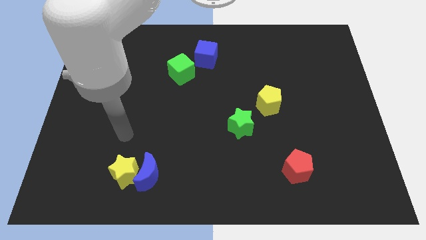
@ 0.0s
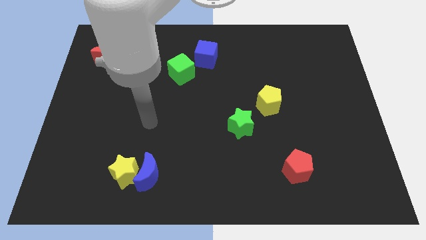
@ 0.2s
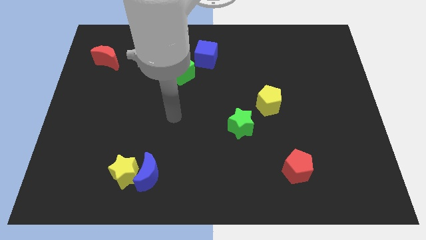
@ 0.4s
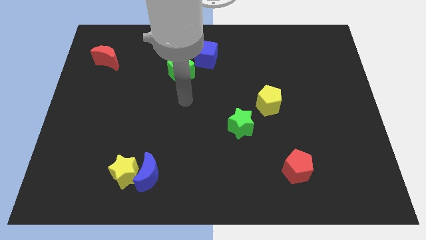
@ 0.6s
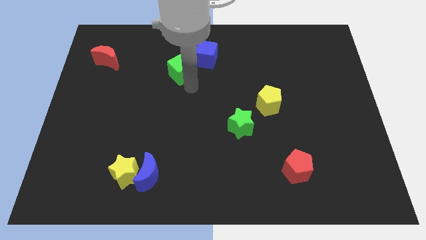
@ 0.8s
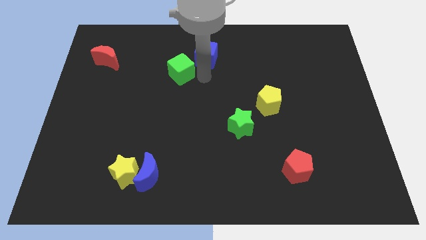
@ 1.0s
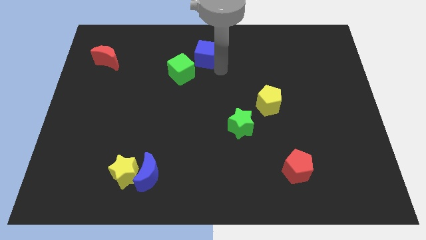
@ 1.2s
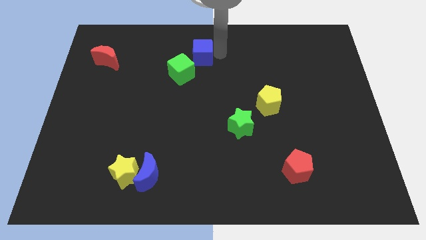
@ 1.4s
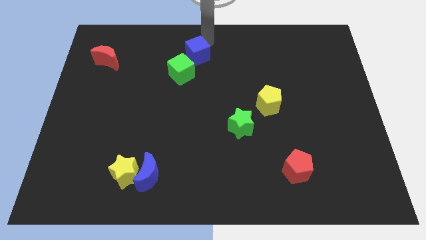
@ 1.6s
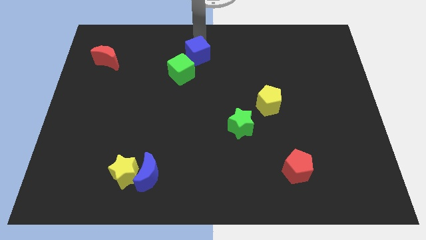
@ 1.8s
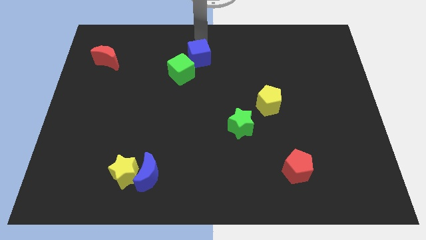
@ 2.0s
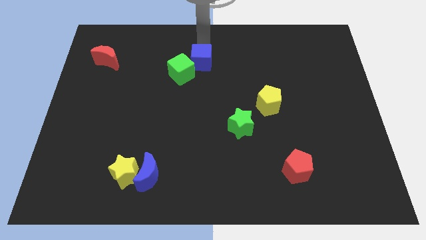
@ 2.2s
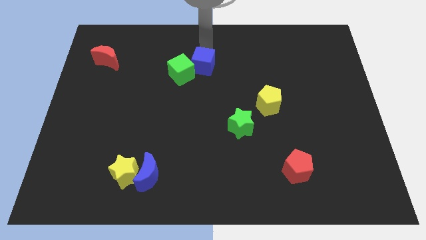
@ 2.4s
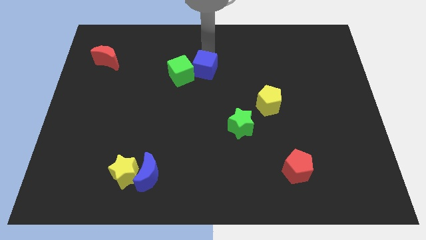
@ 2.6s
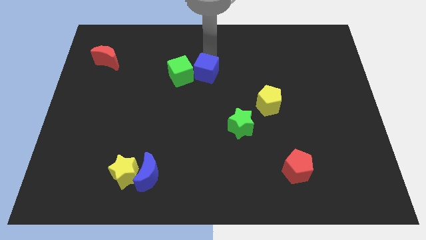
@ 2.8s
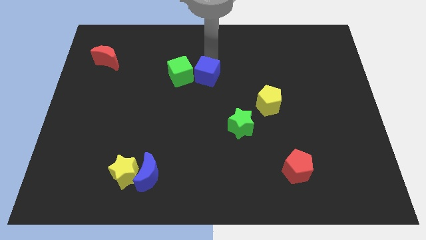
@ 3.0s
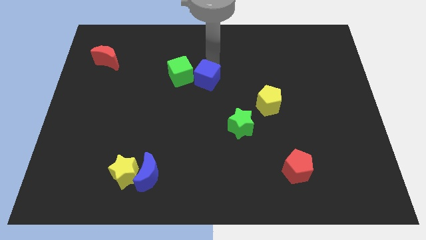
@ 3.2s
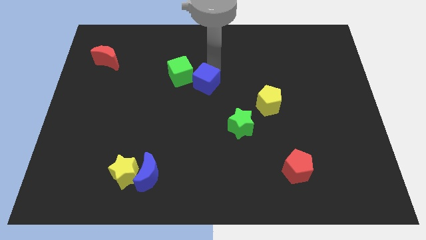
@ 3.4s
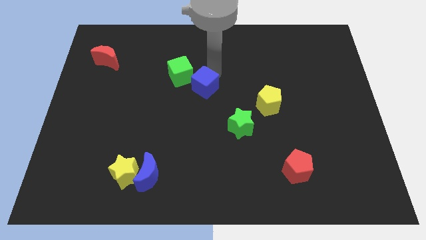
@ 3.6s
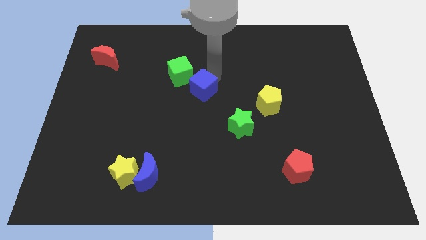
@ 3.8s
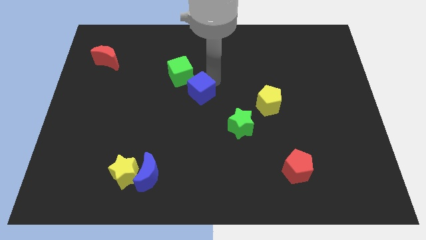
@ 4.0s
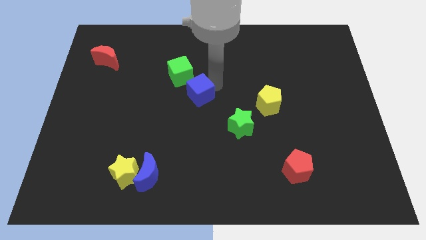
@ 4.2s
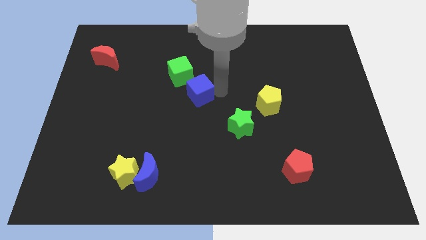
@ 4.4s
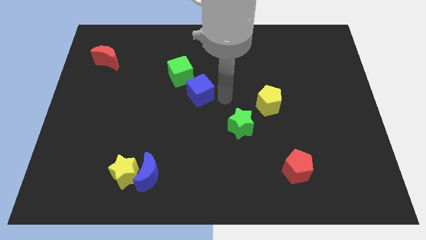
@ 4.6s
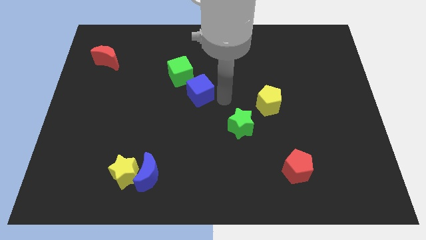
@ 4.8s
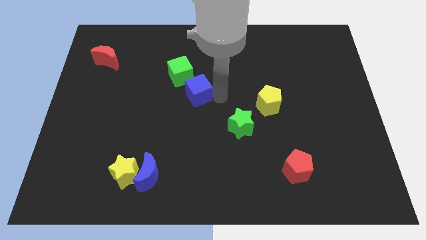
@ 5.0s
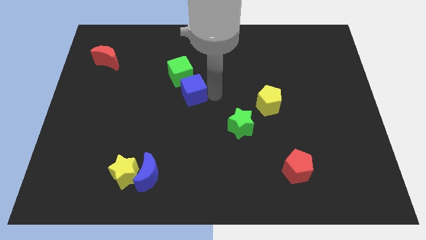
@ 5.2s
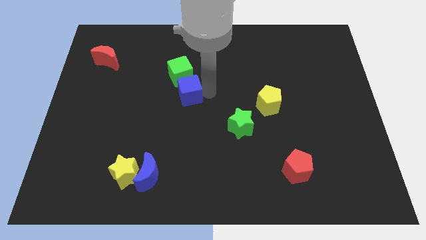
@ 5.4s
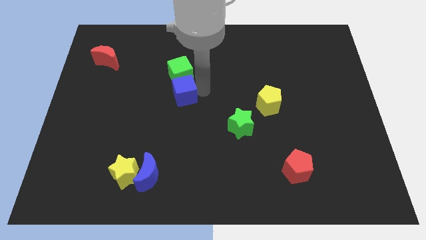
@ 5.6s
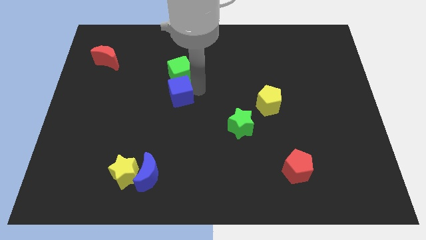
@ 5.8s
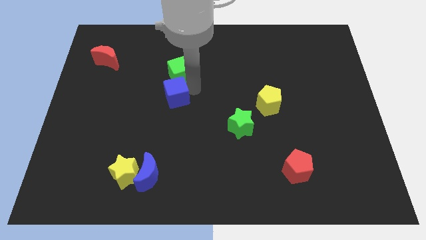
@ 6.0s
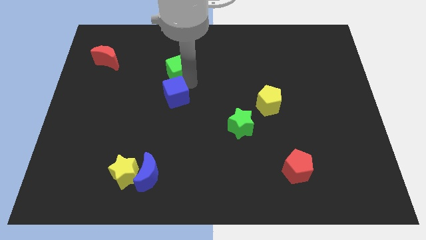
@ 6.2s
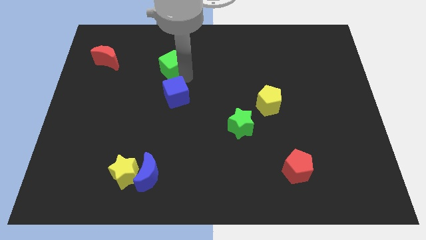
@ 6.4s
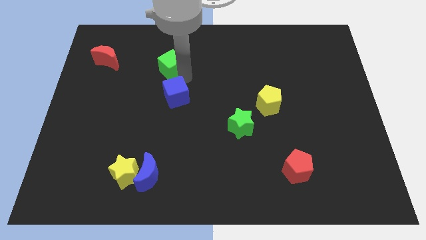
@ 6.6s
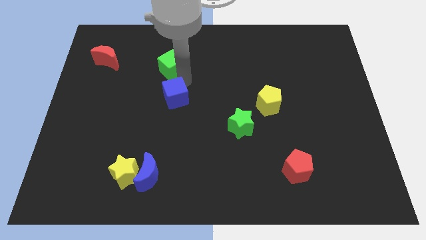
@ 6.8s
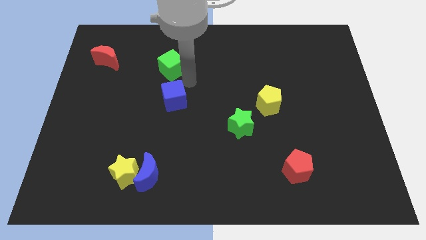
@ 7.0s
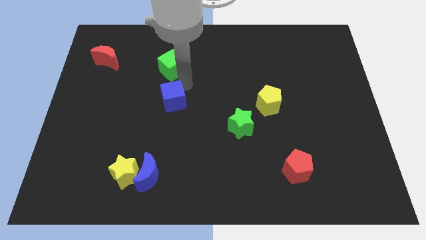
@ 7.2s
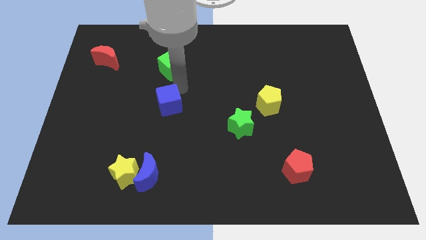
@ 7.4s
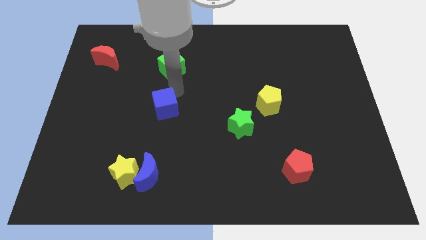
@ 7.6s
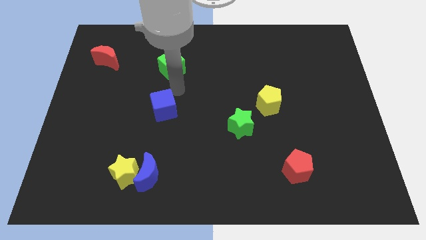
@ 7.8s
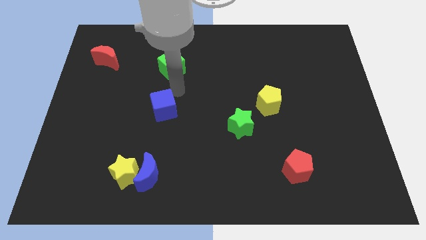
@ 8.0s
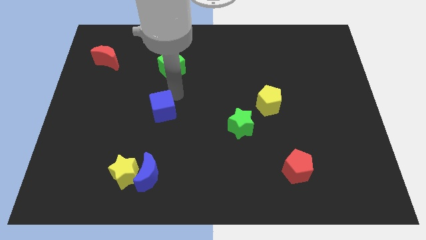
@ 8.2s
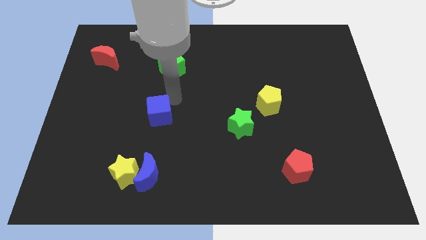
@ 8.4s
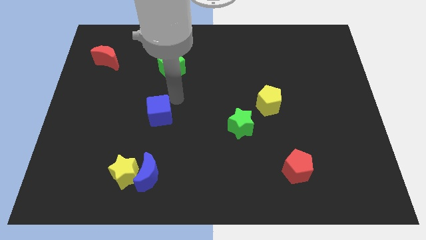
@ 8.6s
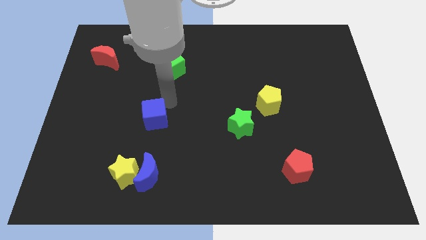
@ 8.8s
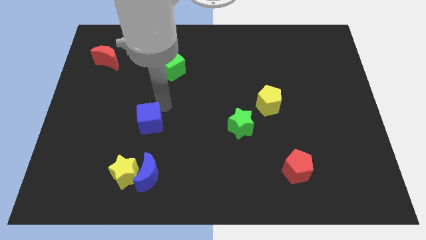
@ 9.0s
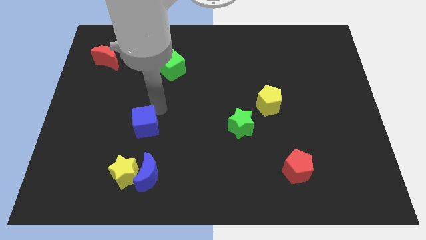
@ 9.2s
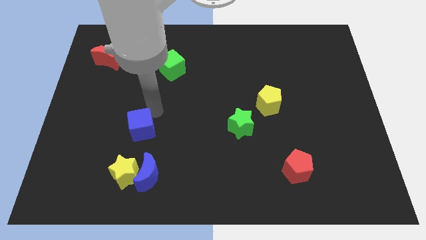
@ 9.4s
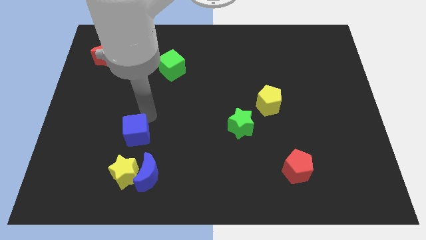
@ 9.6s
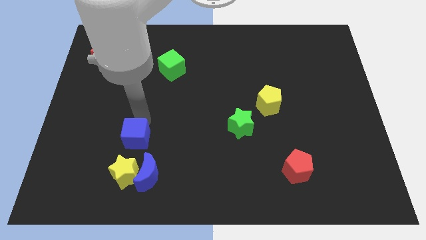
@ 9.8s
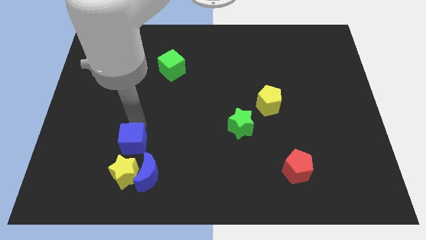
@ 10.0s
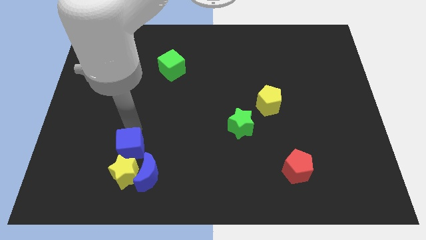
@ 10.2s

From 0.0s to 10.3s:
push the blue cube to the top left side of the yellow star

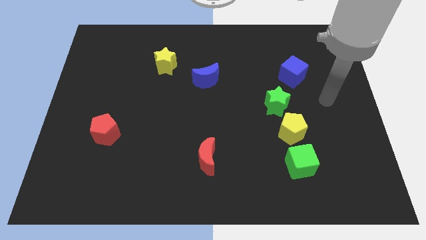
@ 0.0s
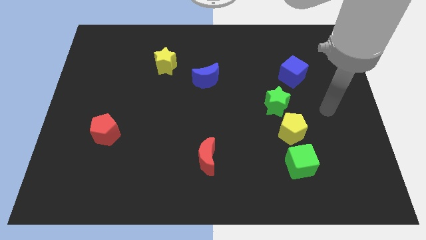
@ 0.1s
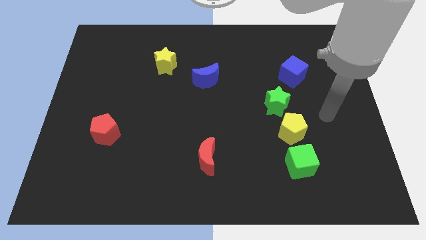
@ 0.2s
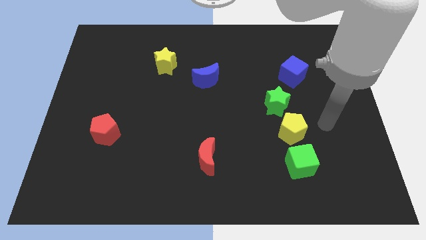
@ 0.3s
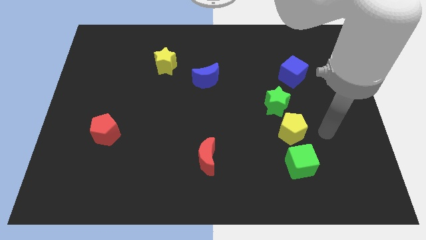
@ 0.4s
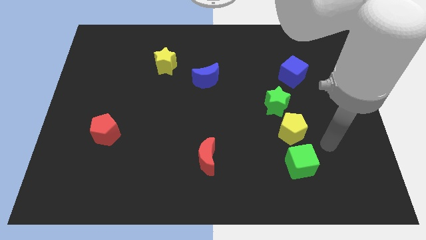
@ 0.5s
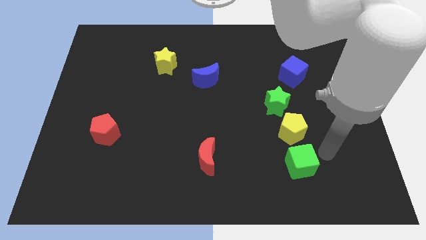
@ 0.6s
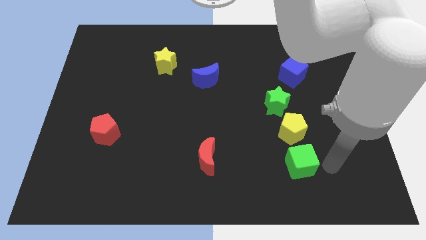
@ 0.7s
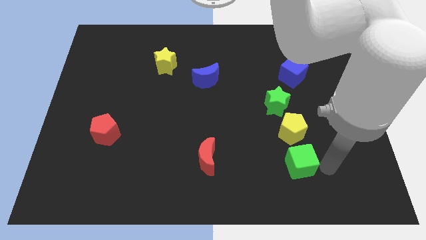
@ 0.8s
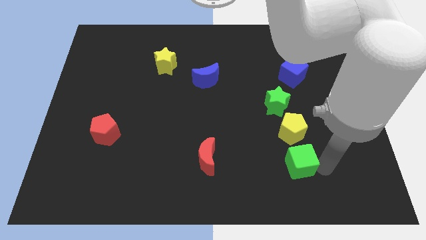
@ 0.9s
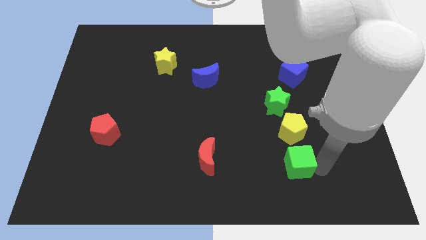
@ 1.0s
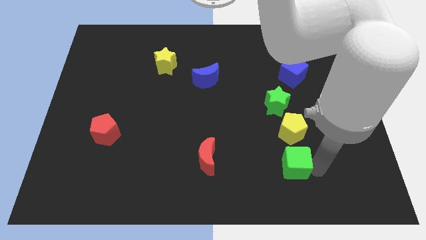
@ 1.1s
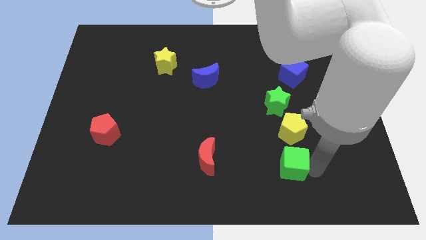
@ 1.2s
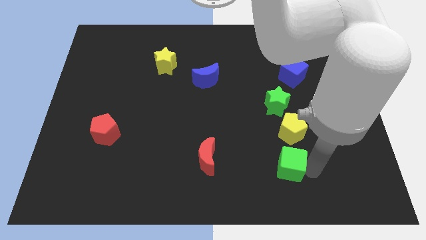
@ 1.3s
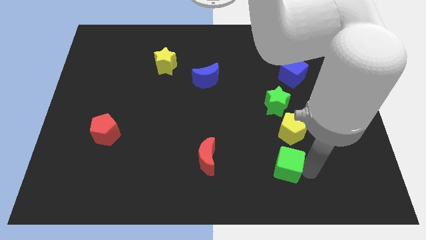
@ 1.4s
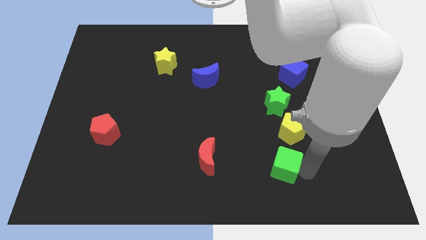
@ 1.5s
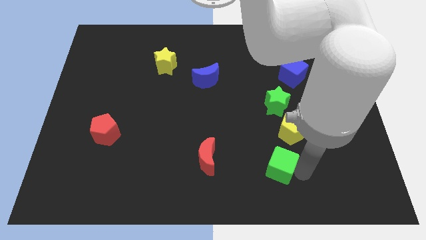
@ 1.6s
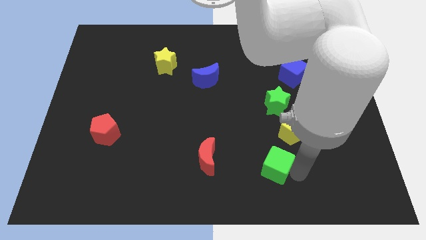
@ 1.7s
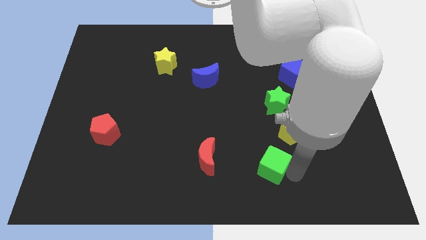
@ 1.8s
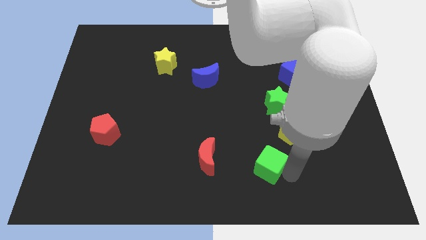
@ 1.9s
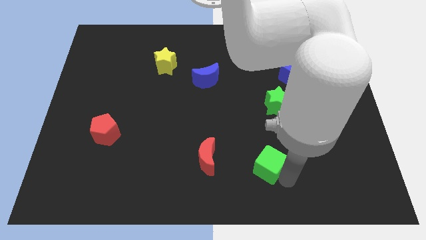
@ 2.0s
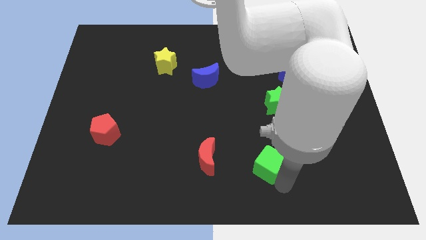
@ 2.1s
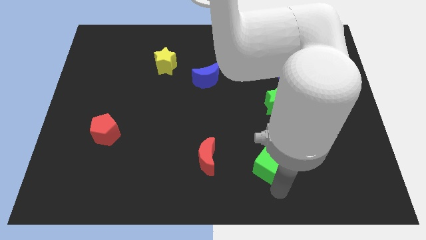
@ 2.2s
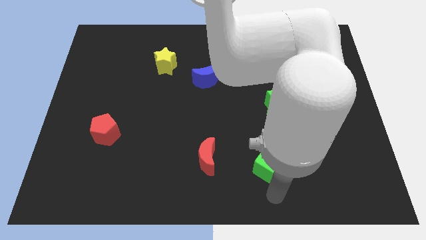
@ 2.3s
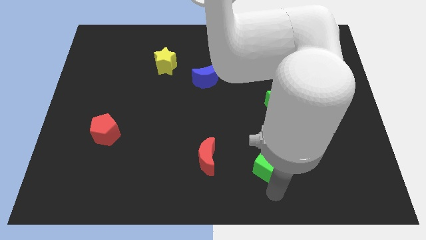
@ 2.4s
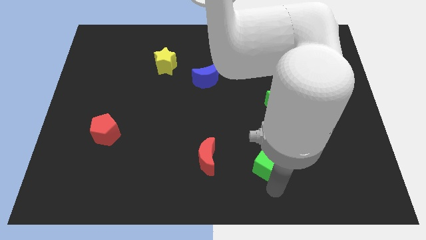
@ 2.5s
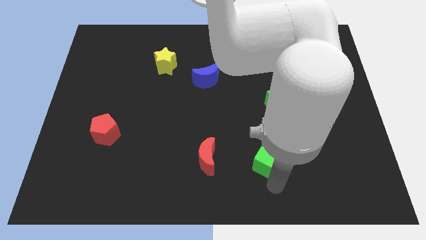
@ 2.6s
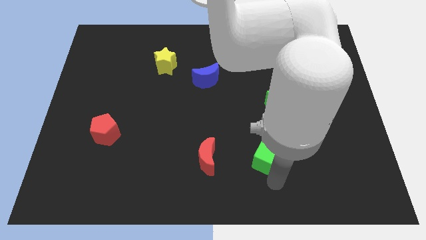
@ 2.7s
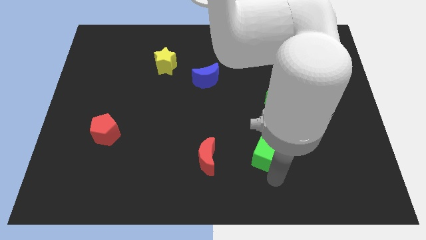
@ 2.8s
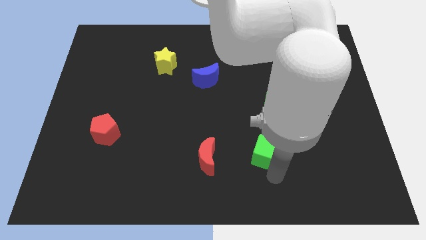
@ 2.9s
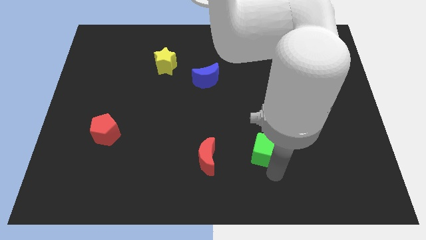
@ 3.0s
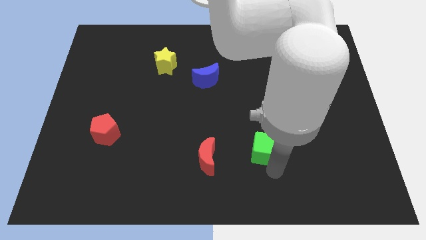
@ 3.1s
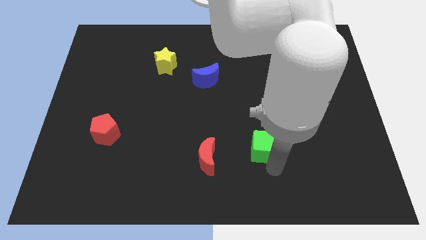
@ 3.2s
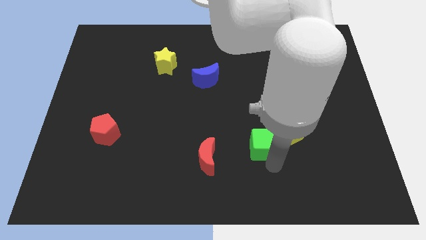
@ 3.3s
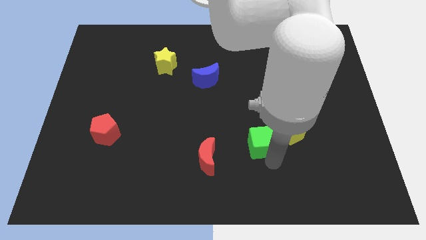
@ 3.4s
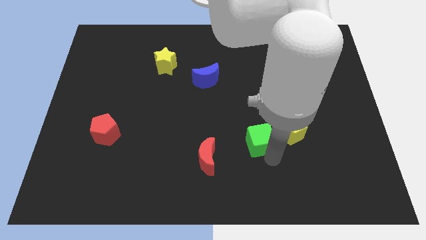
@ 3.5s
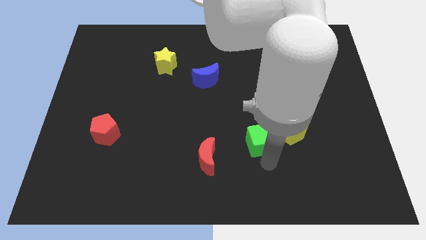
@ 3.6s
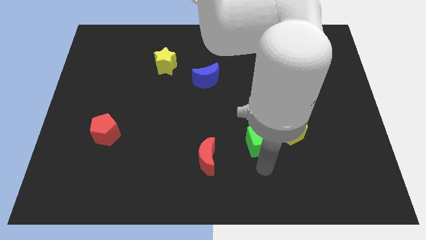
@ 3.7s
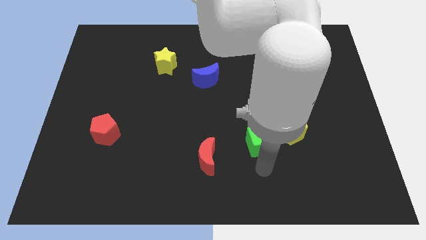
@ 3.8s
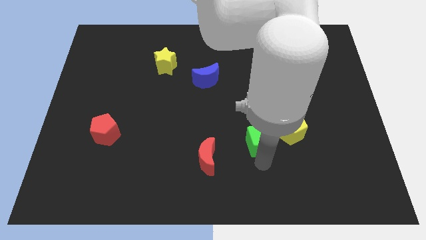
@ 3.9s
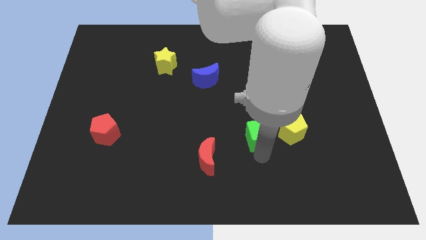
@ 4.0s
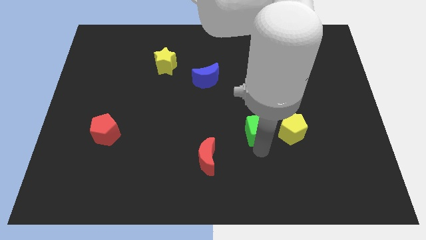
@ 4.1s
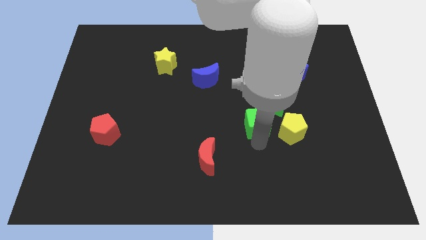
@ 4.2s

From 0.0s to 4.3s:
put the green cube diagonally up and to the left of the yellow pentagon
